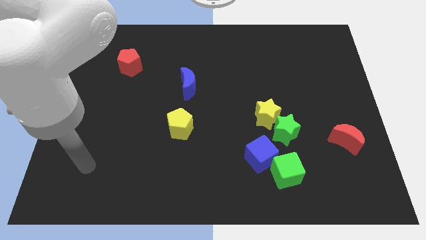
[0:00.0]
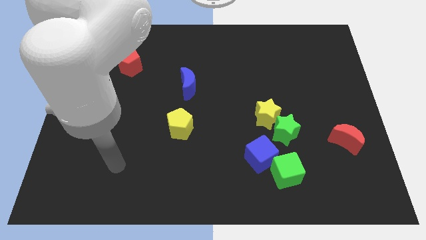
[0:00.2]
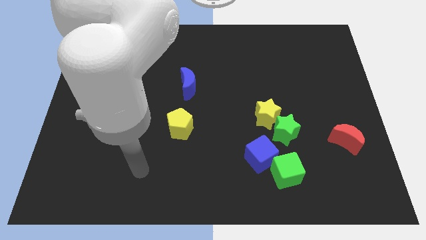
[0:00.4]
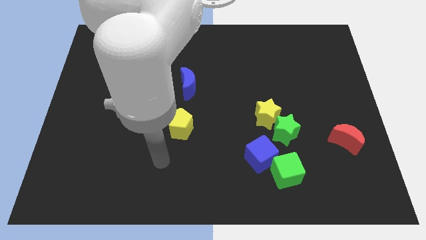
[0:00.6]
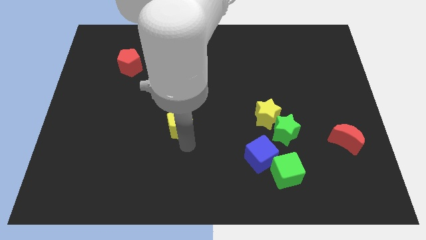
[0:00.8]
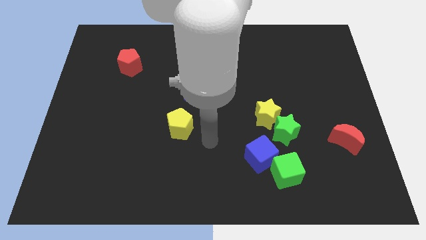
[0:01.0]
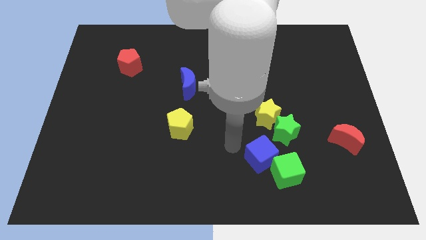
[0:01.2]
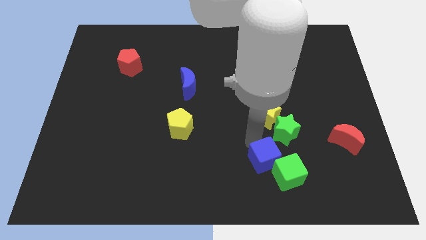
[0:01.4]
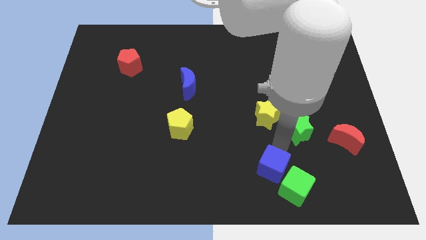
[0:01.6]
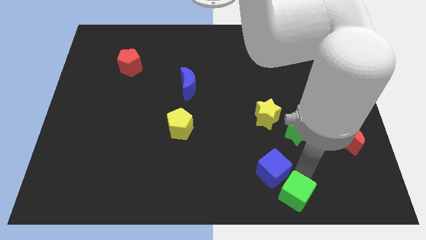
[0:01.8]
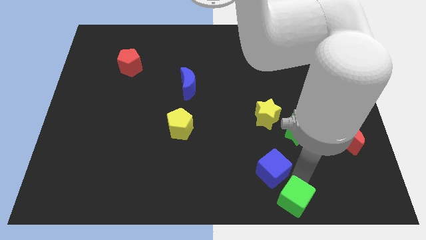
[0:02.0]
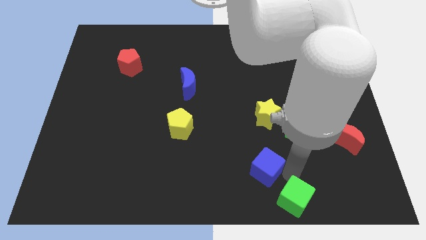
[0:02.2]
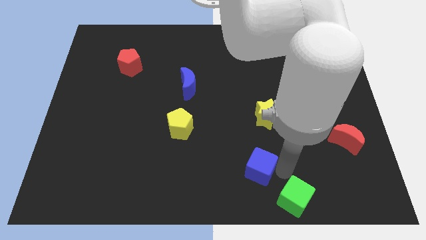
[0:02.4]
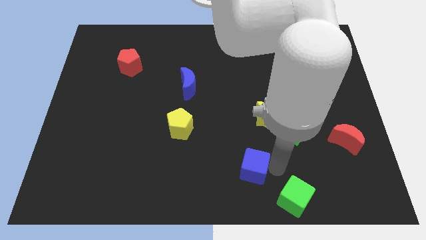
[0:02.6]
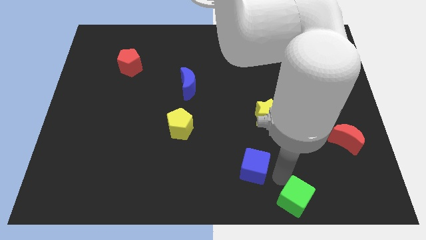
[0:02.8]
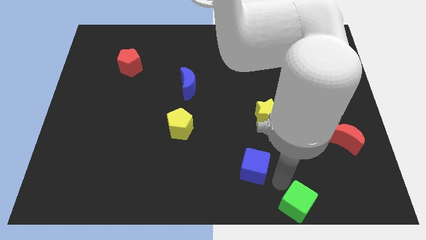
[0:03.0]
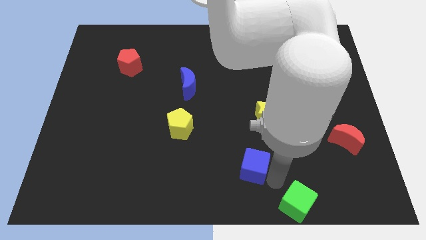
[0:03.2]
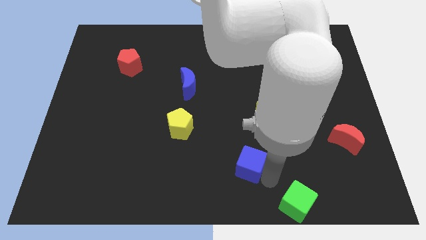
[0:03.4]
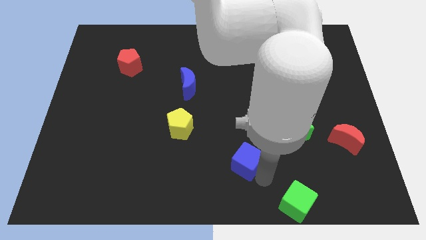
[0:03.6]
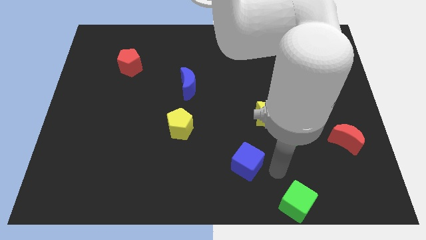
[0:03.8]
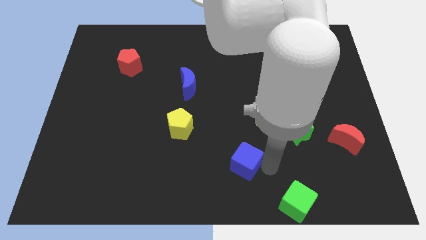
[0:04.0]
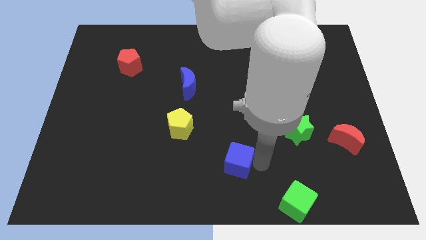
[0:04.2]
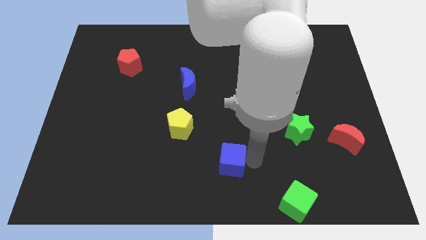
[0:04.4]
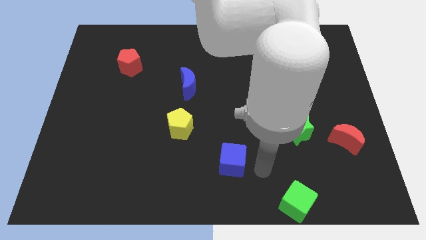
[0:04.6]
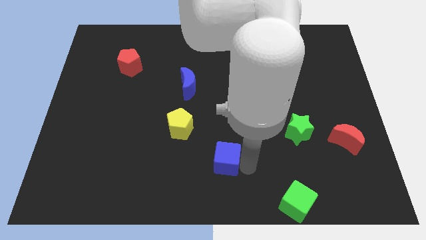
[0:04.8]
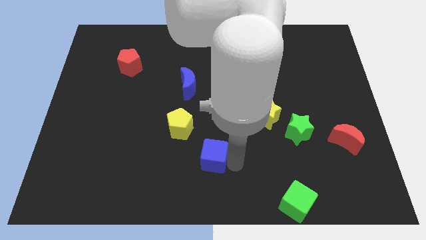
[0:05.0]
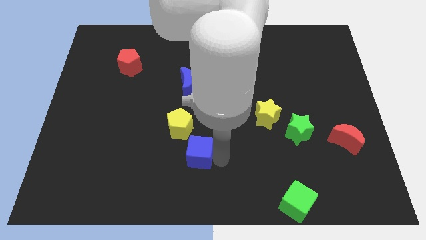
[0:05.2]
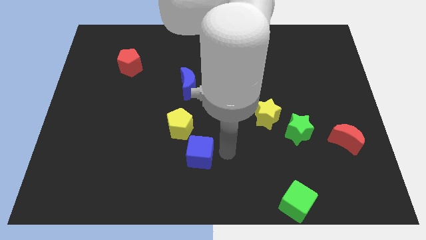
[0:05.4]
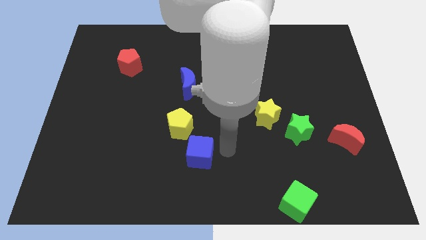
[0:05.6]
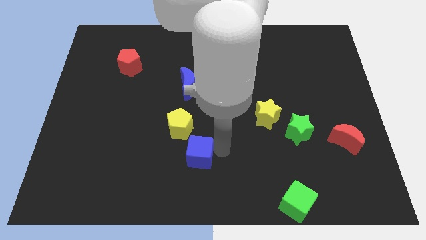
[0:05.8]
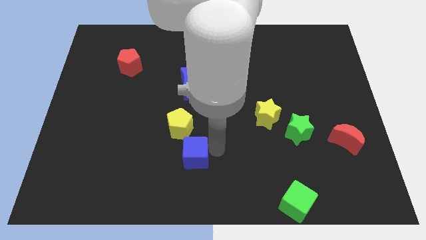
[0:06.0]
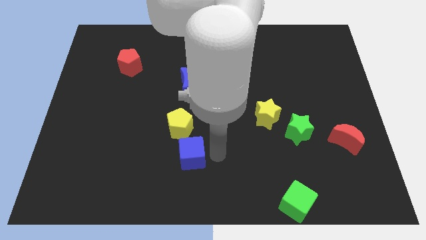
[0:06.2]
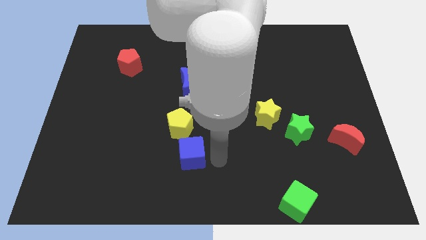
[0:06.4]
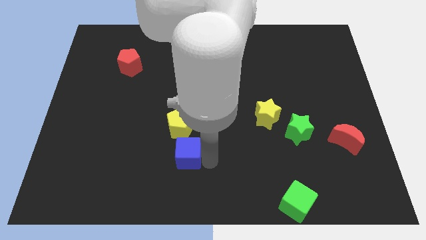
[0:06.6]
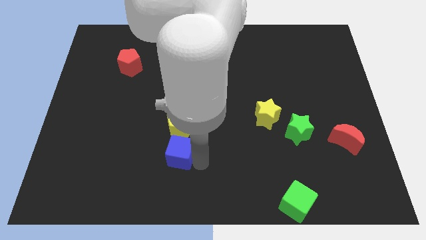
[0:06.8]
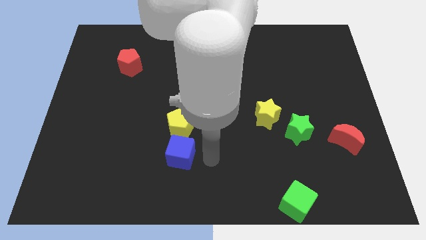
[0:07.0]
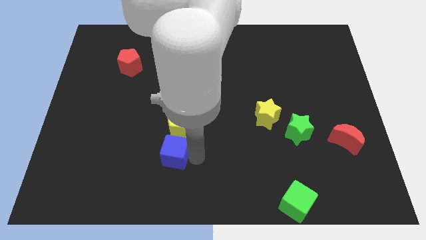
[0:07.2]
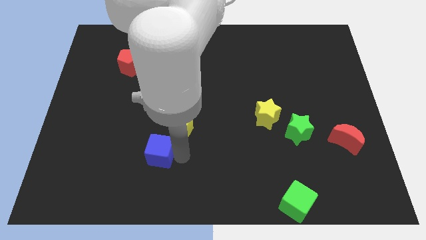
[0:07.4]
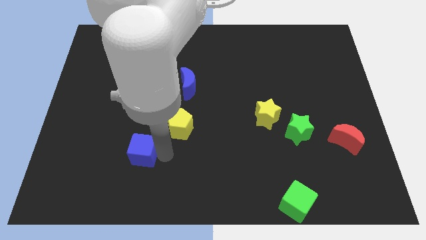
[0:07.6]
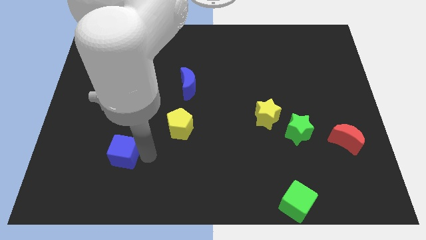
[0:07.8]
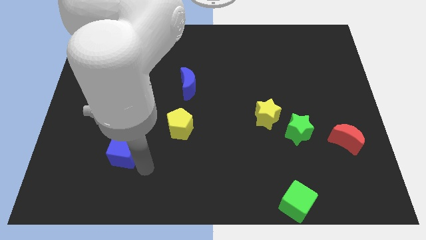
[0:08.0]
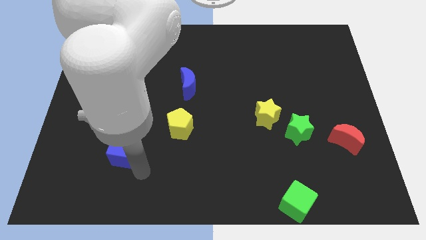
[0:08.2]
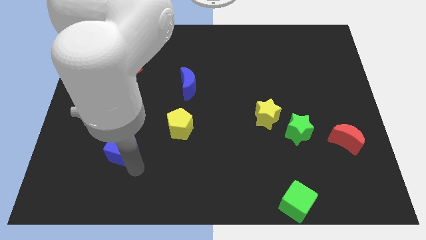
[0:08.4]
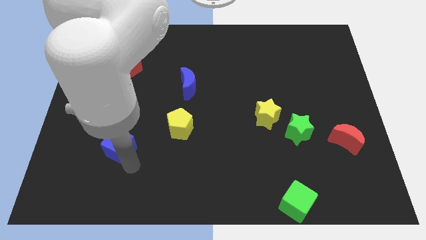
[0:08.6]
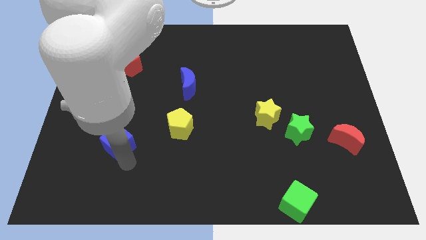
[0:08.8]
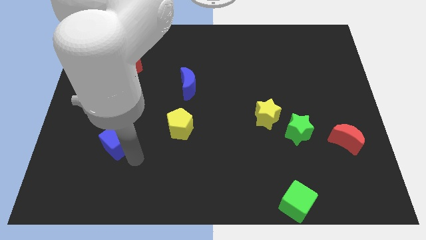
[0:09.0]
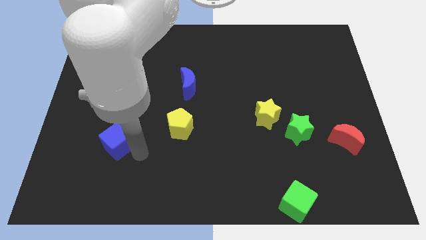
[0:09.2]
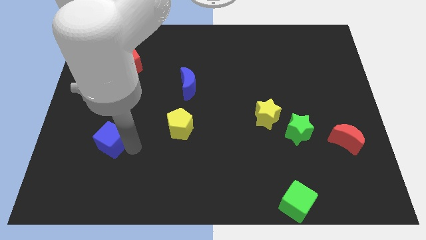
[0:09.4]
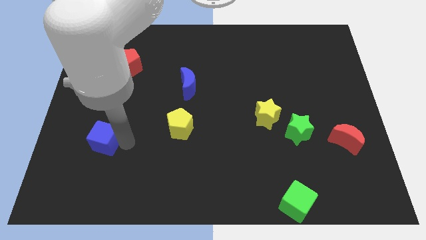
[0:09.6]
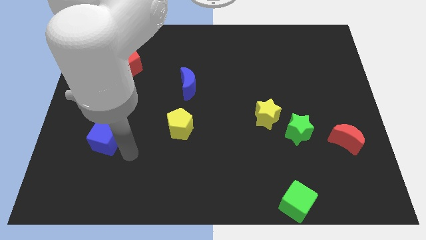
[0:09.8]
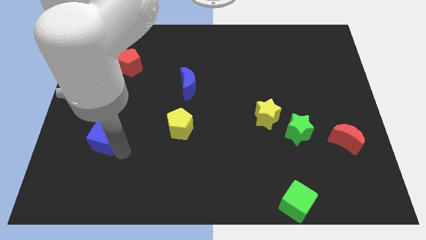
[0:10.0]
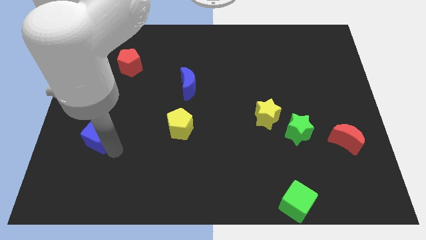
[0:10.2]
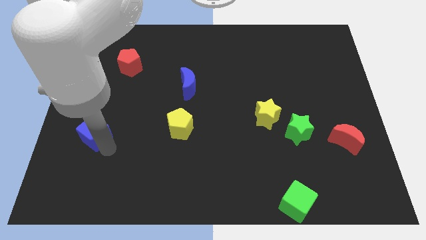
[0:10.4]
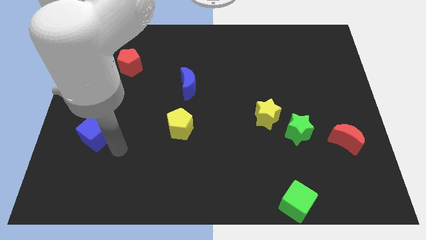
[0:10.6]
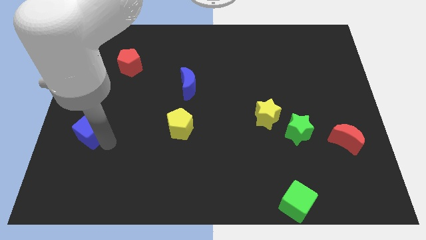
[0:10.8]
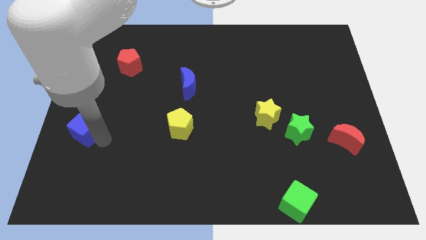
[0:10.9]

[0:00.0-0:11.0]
push the blue cube to the left side of the board

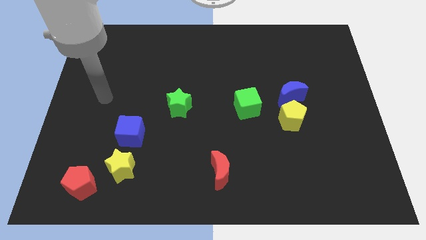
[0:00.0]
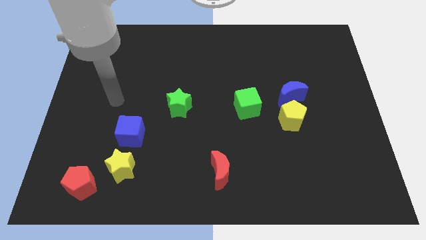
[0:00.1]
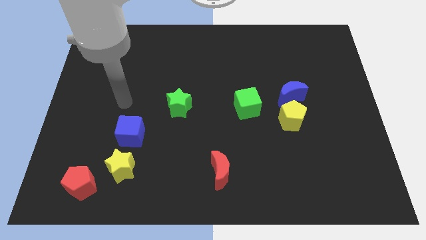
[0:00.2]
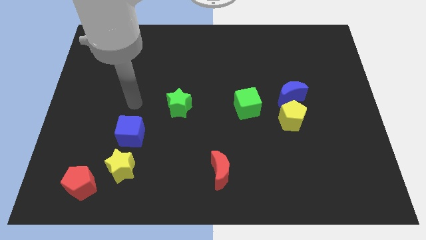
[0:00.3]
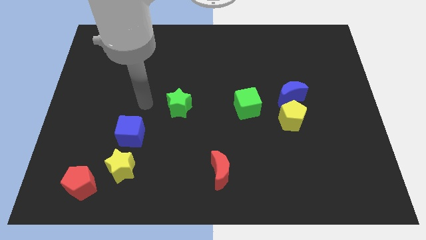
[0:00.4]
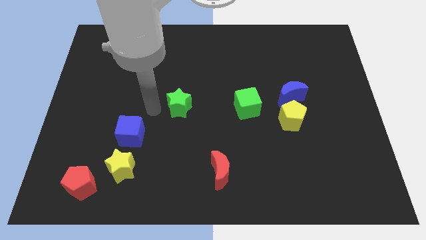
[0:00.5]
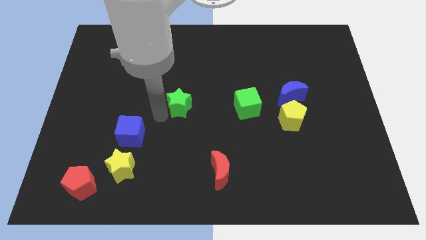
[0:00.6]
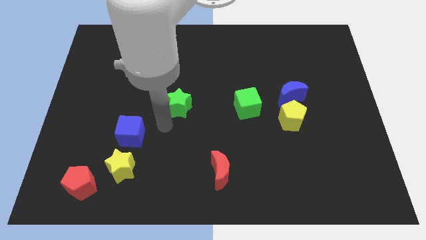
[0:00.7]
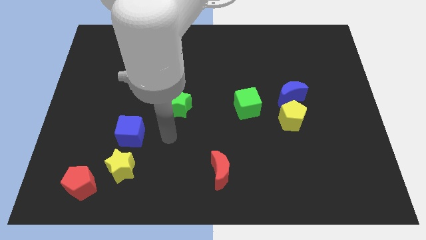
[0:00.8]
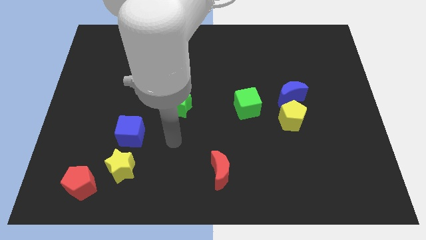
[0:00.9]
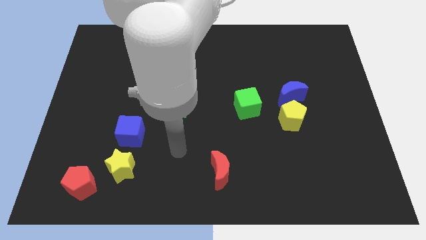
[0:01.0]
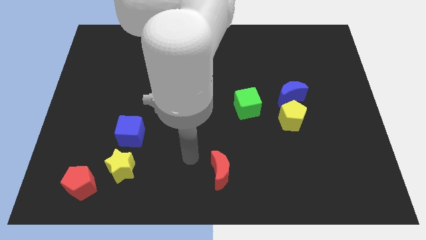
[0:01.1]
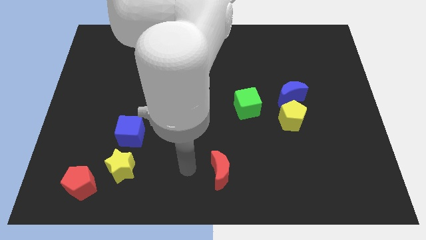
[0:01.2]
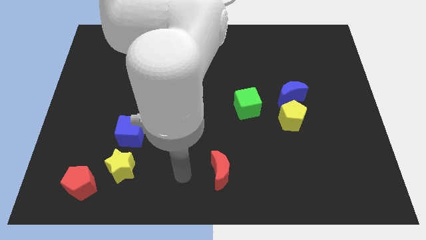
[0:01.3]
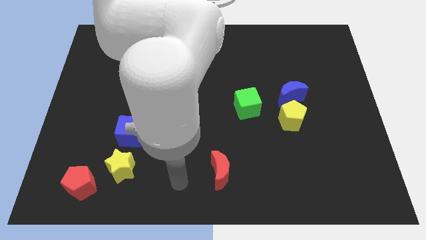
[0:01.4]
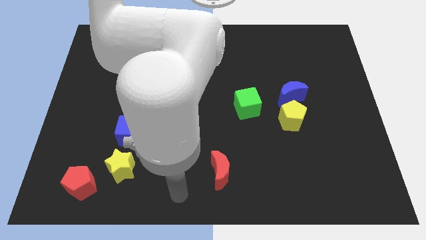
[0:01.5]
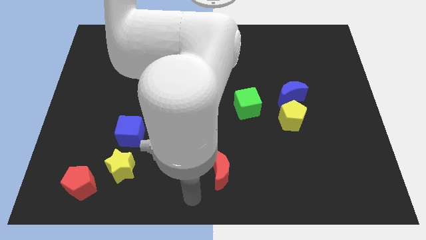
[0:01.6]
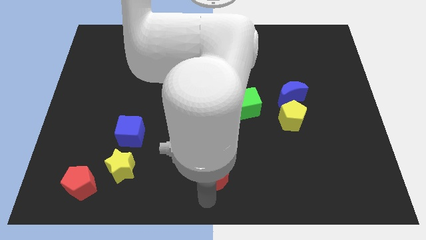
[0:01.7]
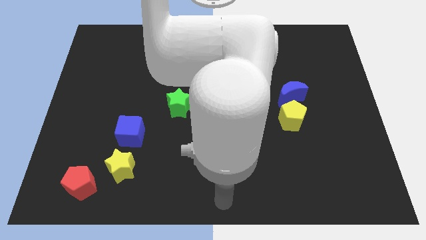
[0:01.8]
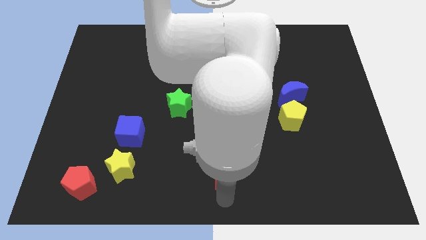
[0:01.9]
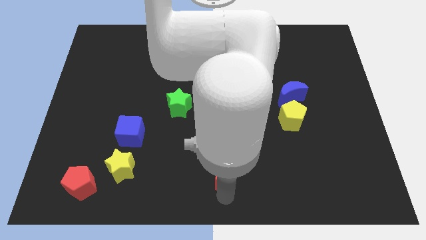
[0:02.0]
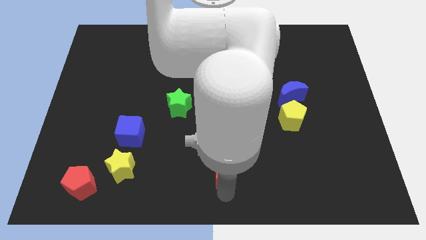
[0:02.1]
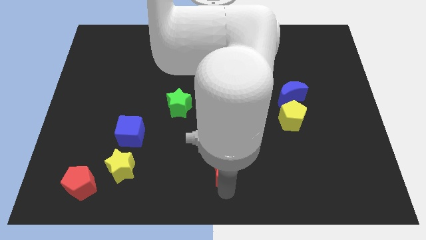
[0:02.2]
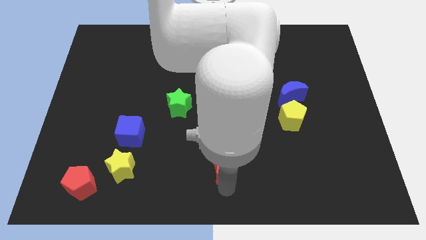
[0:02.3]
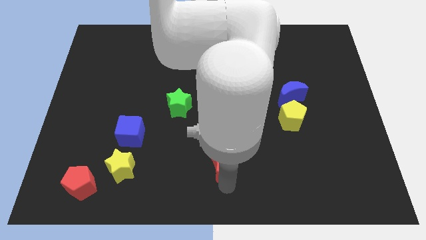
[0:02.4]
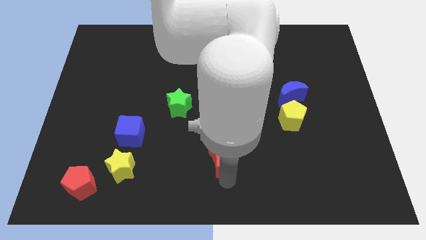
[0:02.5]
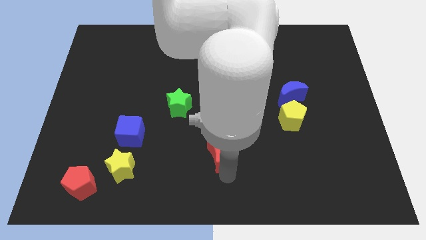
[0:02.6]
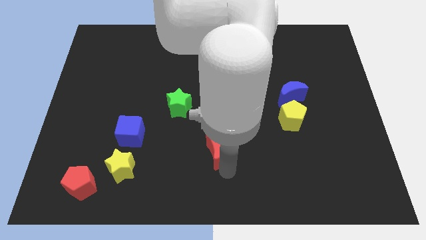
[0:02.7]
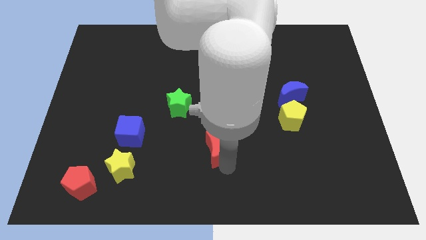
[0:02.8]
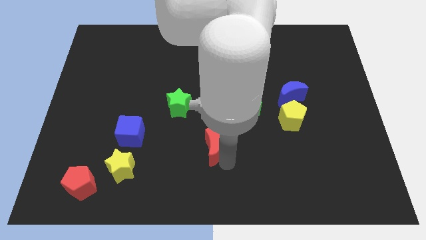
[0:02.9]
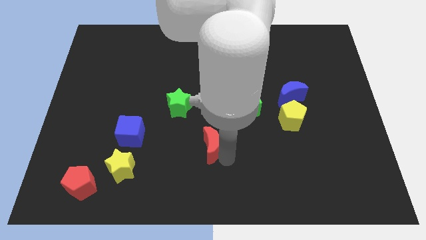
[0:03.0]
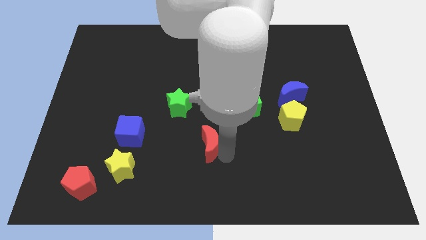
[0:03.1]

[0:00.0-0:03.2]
move the red moon to the center of the board
